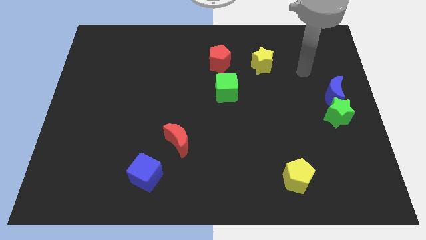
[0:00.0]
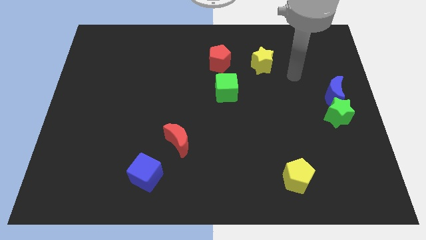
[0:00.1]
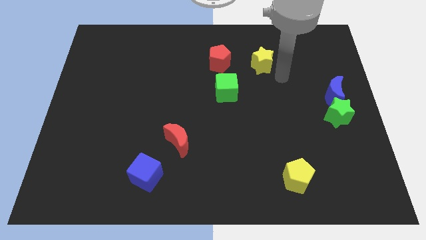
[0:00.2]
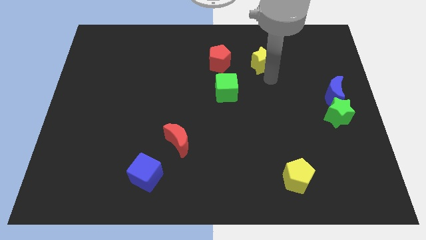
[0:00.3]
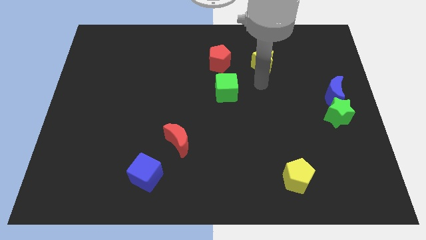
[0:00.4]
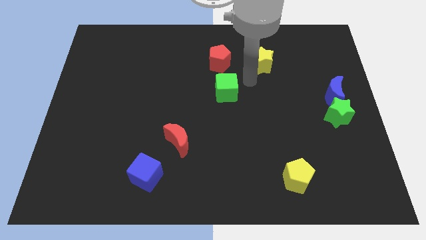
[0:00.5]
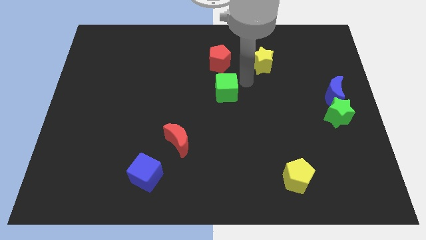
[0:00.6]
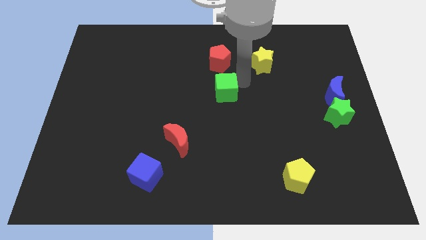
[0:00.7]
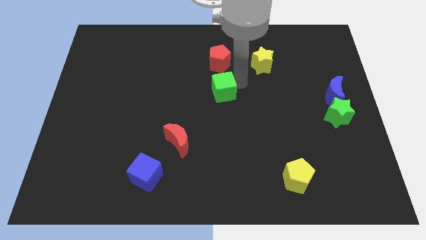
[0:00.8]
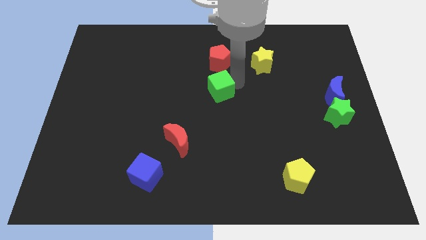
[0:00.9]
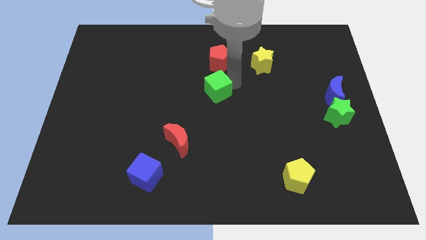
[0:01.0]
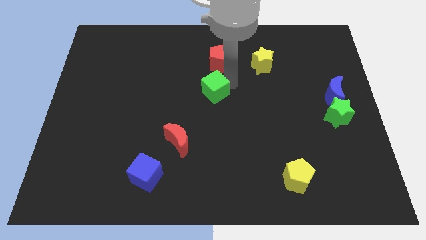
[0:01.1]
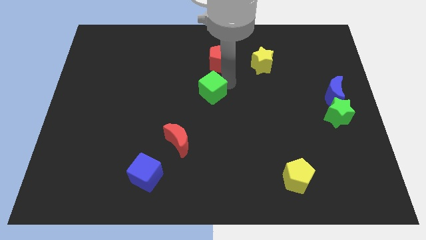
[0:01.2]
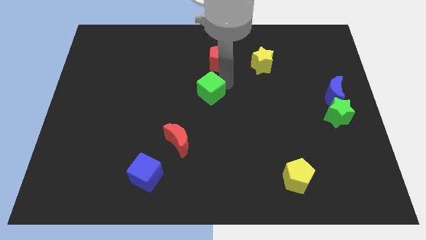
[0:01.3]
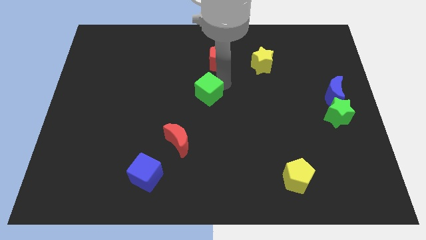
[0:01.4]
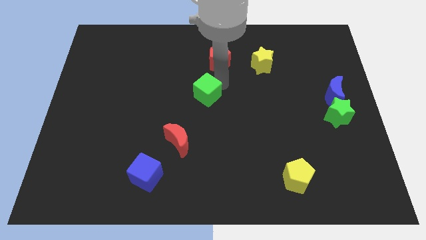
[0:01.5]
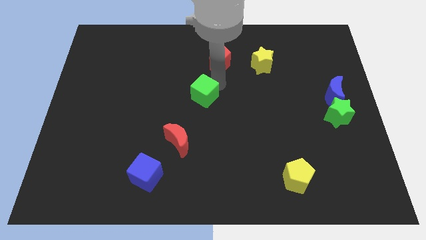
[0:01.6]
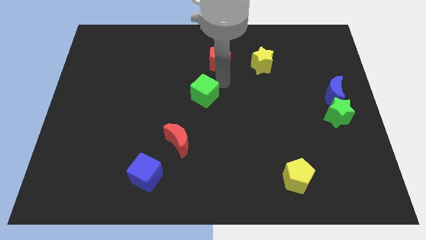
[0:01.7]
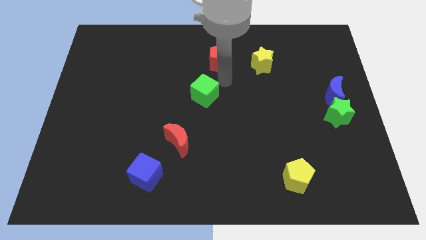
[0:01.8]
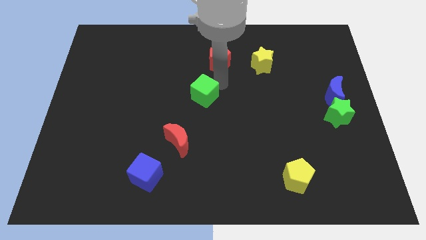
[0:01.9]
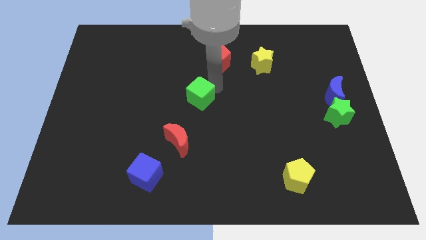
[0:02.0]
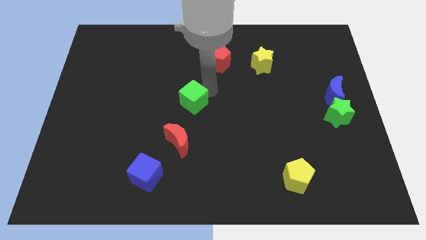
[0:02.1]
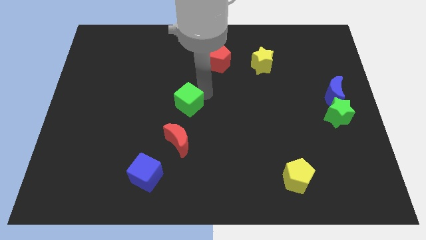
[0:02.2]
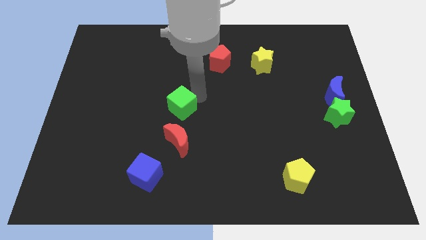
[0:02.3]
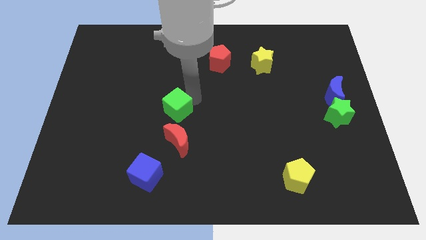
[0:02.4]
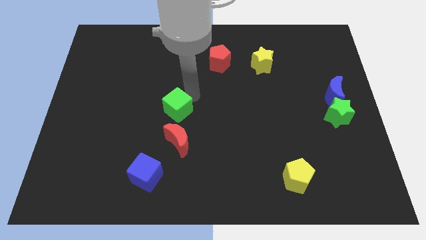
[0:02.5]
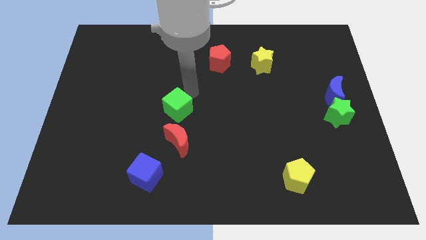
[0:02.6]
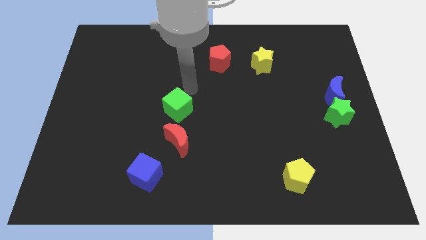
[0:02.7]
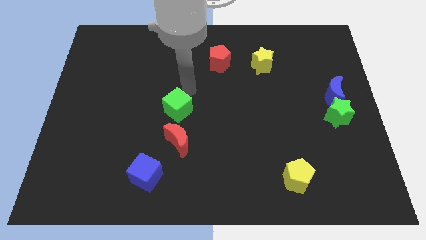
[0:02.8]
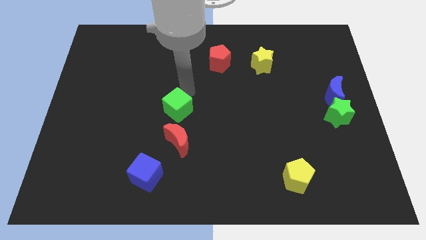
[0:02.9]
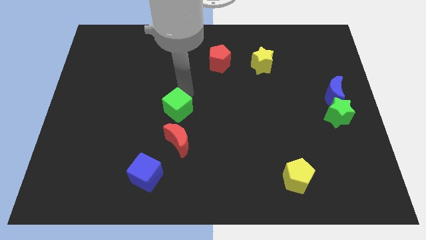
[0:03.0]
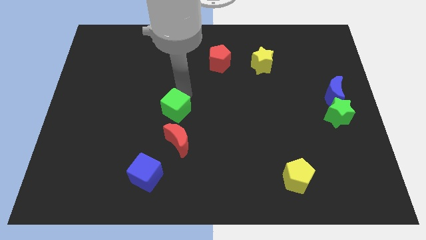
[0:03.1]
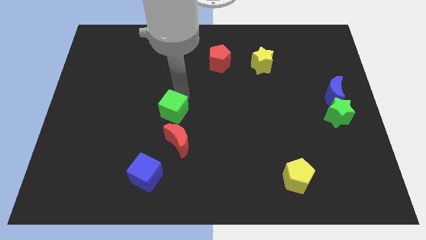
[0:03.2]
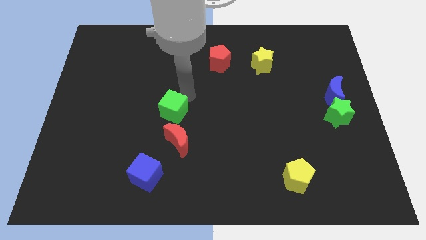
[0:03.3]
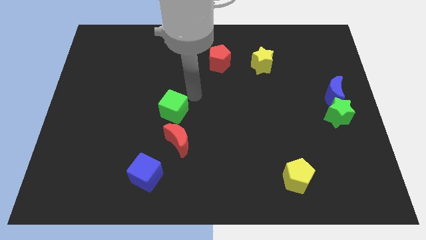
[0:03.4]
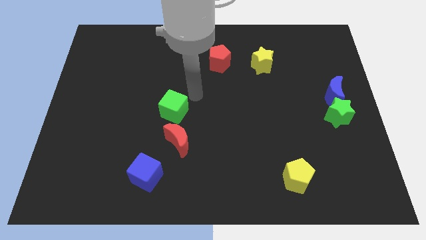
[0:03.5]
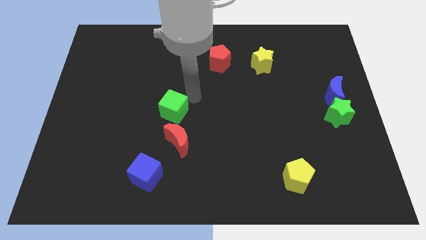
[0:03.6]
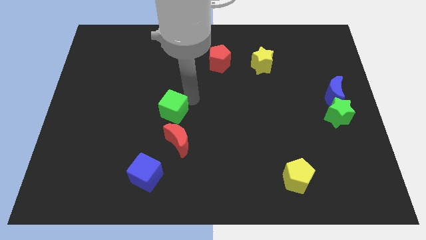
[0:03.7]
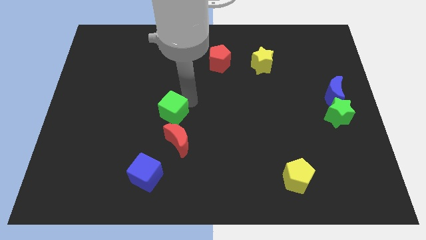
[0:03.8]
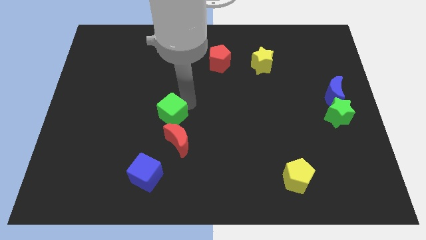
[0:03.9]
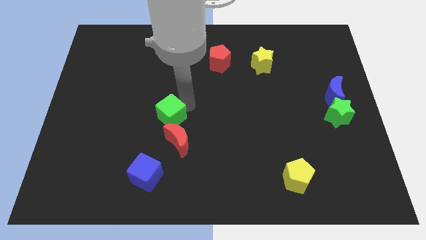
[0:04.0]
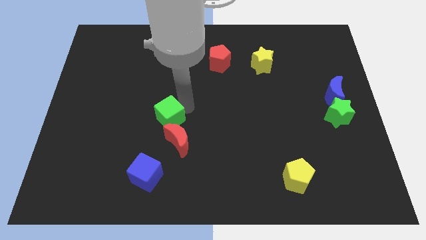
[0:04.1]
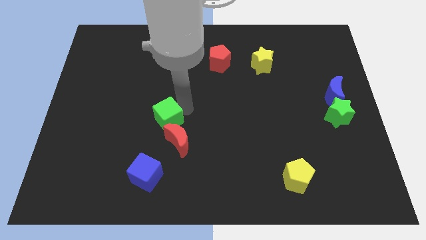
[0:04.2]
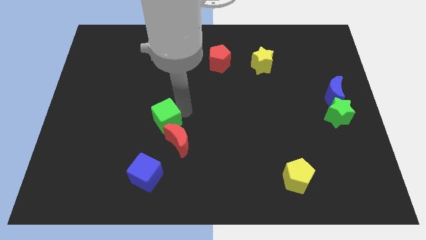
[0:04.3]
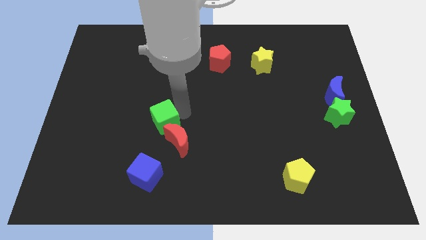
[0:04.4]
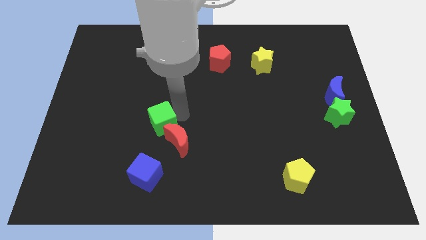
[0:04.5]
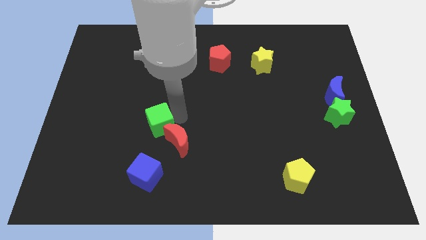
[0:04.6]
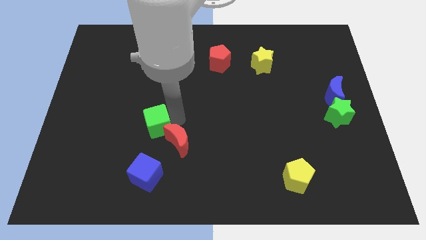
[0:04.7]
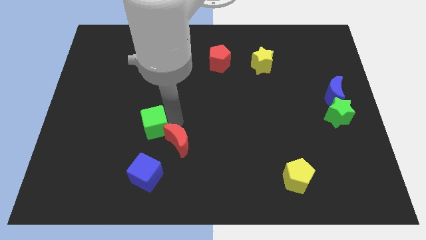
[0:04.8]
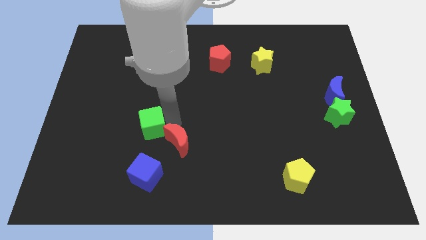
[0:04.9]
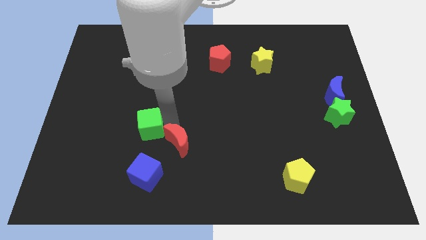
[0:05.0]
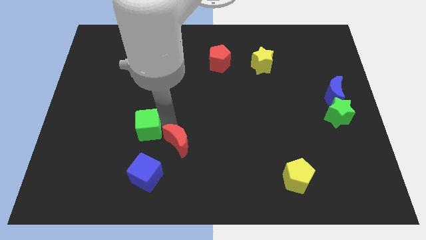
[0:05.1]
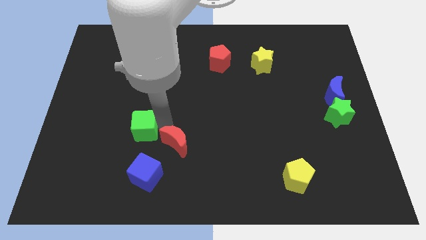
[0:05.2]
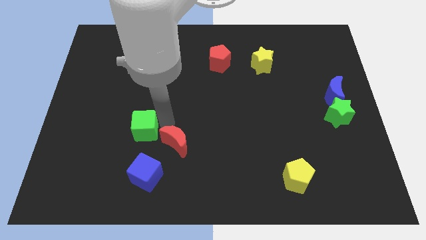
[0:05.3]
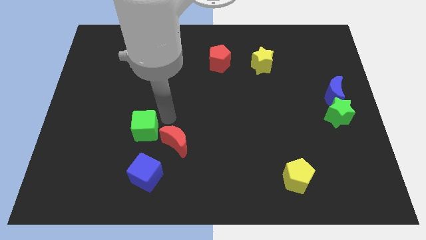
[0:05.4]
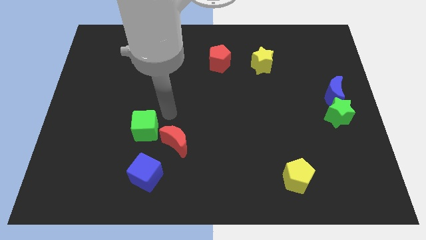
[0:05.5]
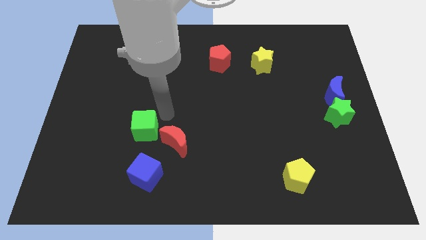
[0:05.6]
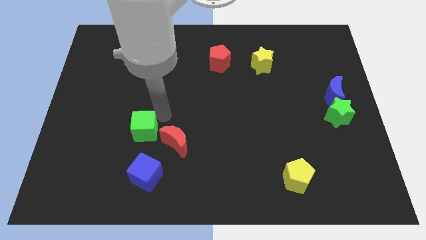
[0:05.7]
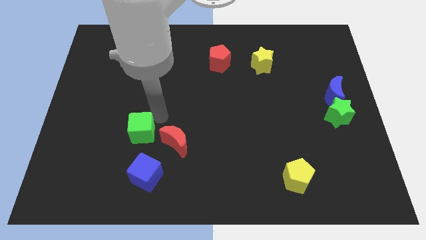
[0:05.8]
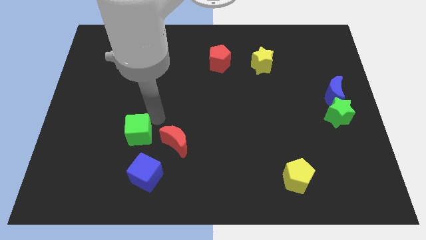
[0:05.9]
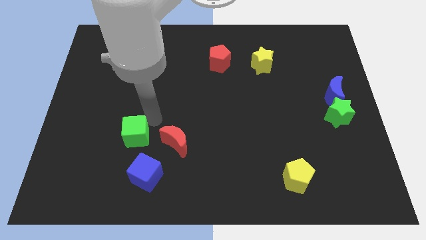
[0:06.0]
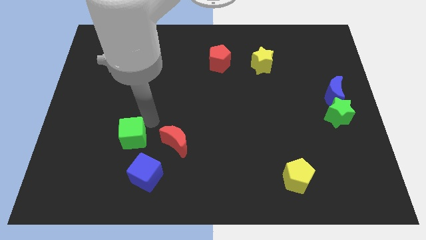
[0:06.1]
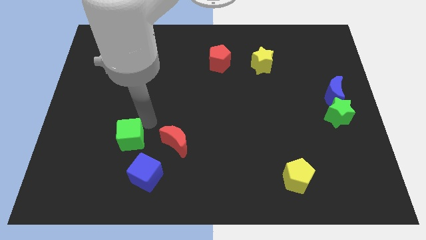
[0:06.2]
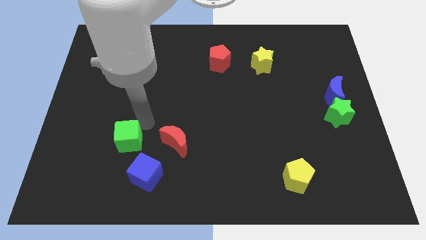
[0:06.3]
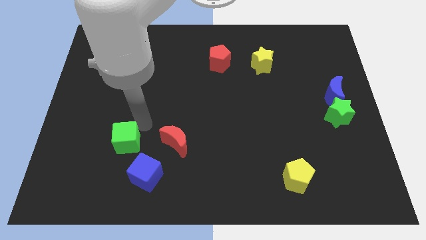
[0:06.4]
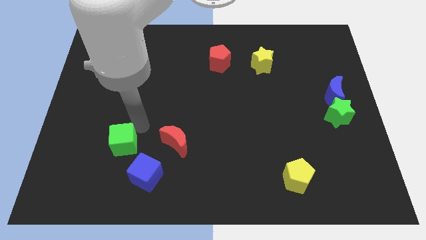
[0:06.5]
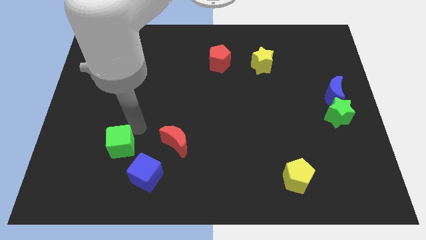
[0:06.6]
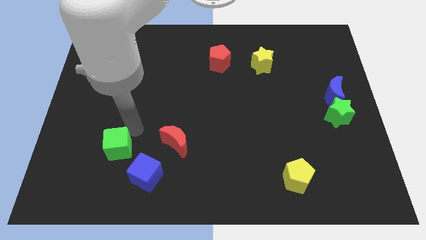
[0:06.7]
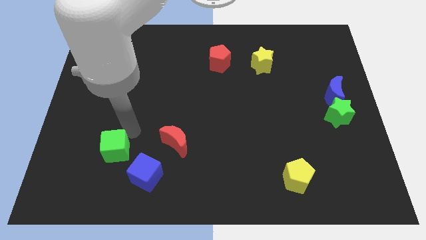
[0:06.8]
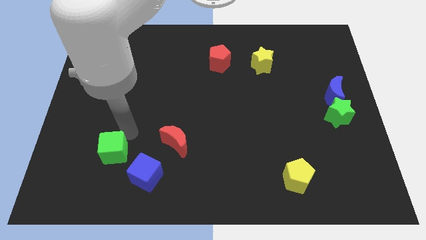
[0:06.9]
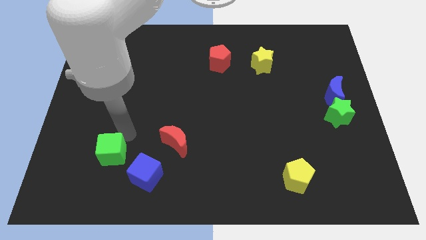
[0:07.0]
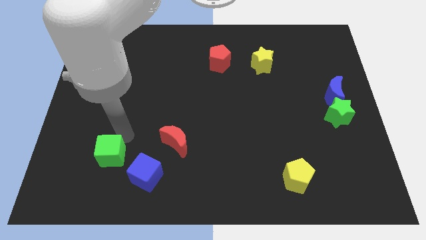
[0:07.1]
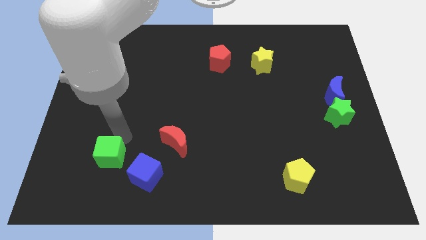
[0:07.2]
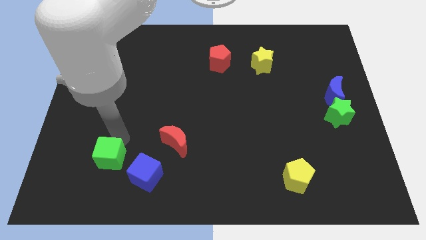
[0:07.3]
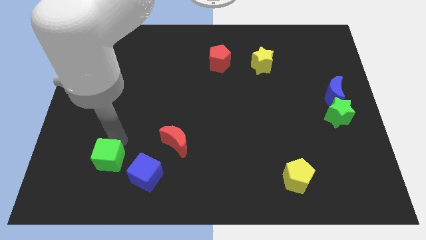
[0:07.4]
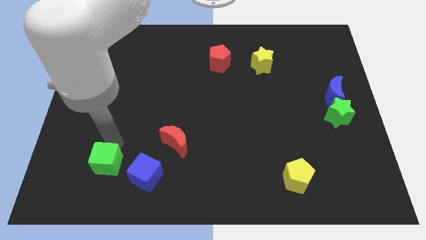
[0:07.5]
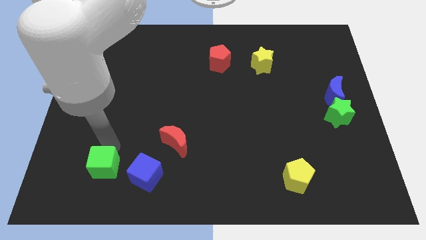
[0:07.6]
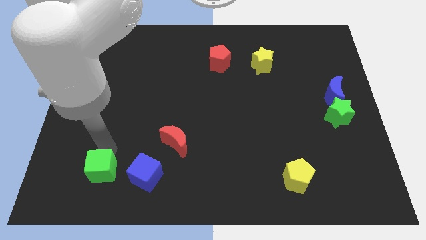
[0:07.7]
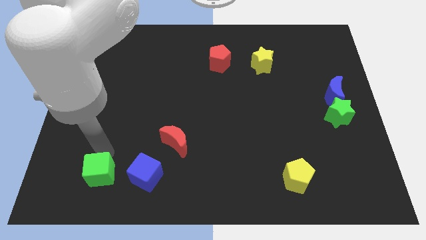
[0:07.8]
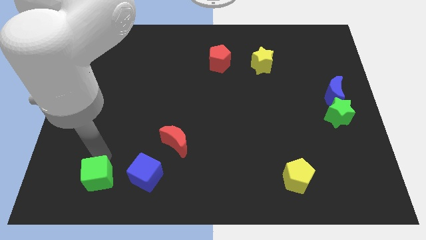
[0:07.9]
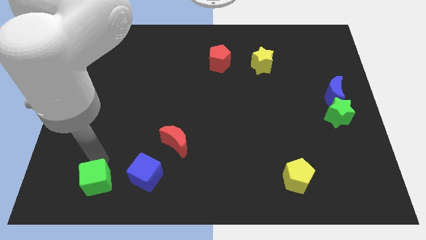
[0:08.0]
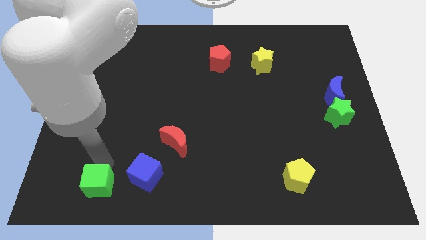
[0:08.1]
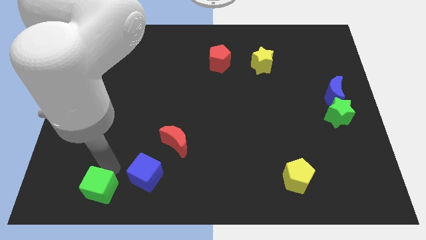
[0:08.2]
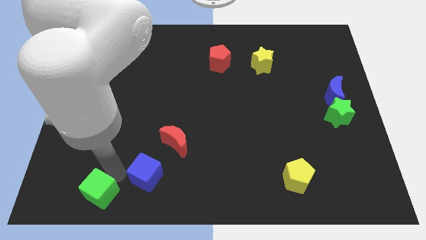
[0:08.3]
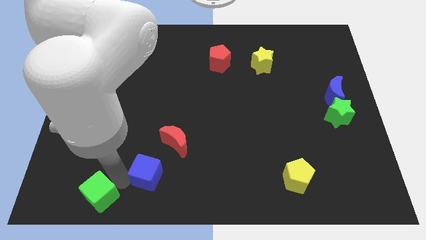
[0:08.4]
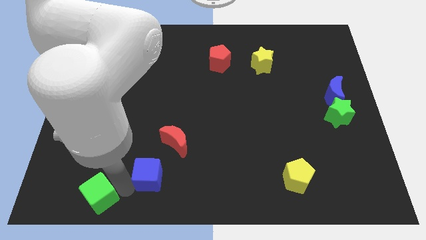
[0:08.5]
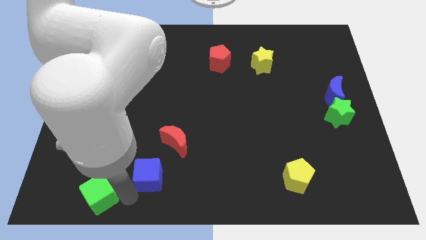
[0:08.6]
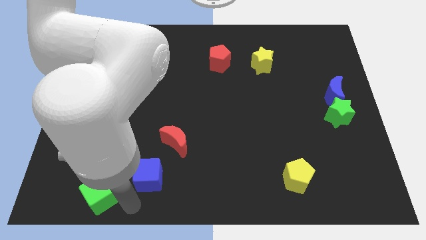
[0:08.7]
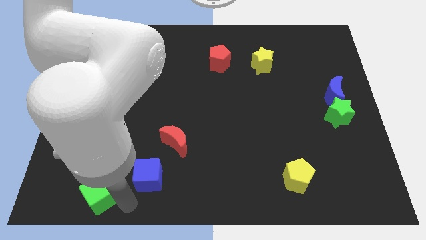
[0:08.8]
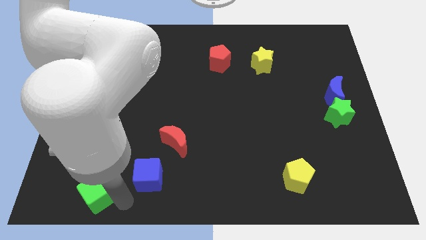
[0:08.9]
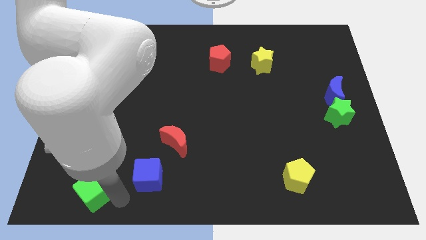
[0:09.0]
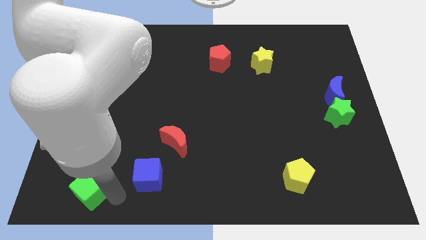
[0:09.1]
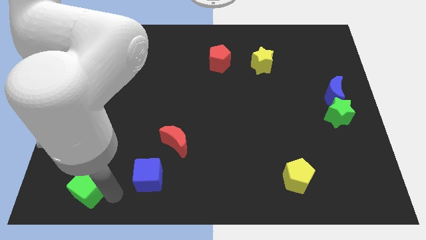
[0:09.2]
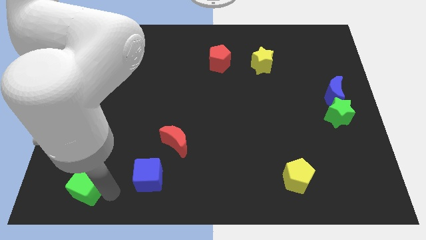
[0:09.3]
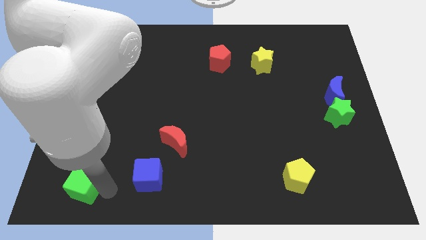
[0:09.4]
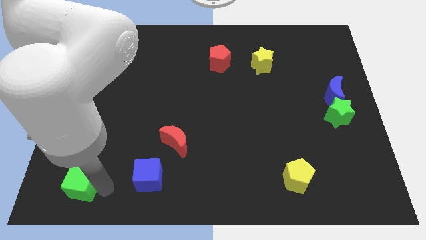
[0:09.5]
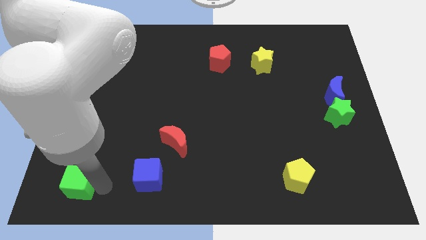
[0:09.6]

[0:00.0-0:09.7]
slide the green cube to the bottom left of the board
